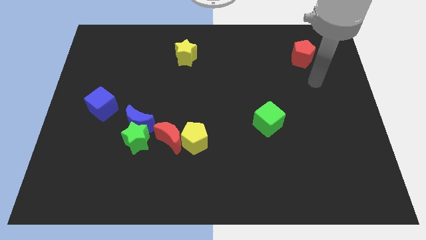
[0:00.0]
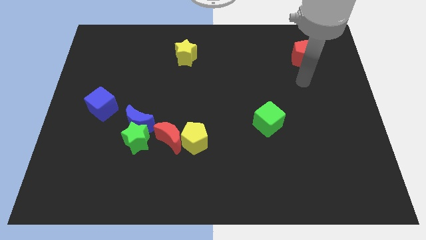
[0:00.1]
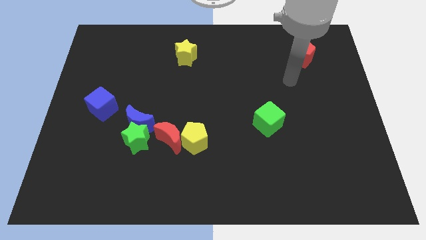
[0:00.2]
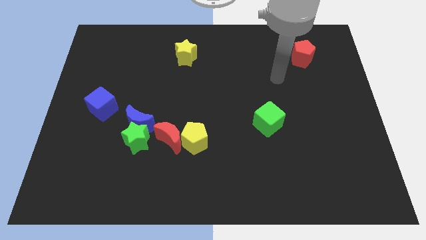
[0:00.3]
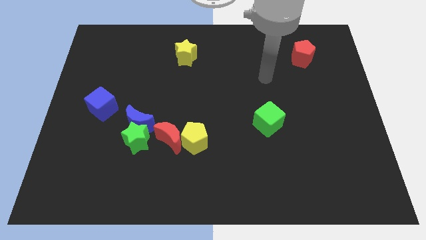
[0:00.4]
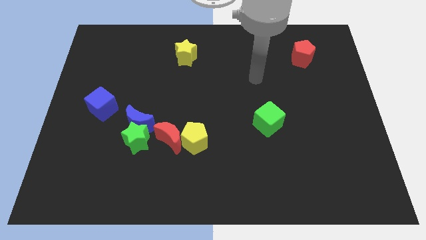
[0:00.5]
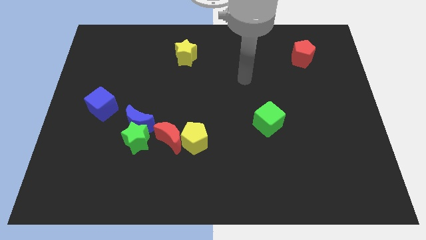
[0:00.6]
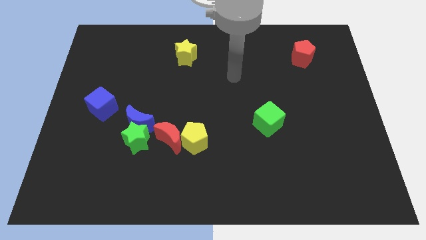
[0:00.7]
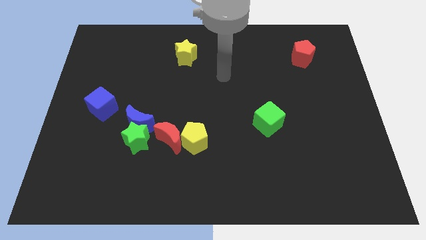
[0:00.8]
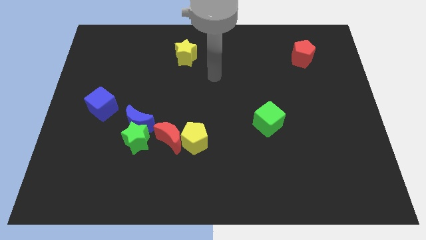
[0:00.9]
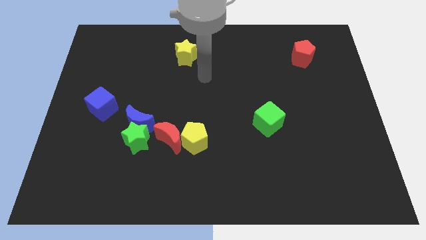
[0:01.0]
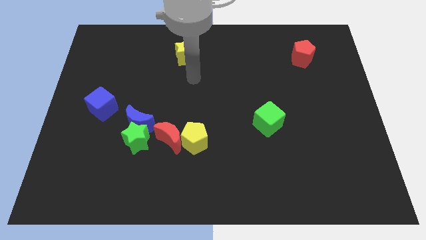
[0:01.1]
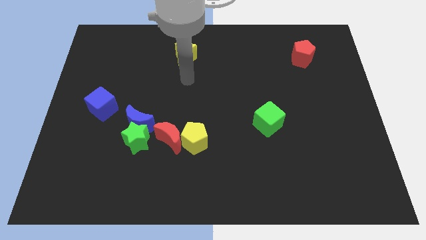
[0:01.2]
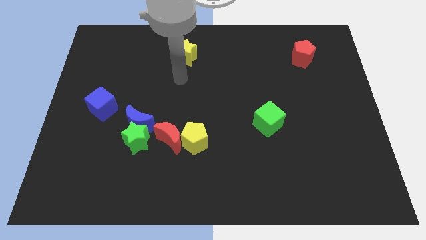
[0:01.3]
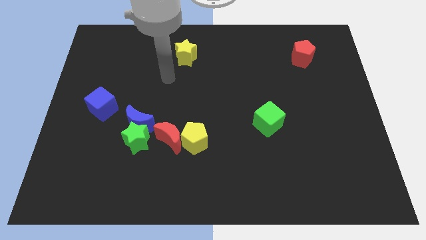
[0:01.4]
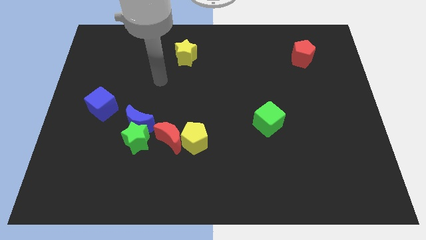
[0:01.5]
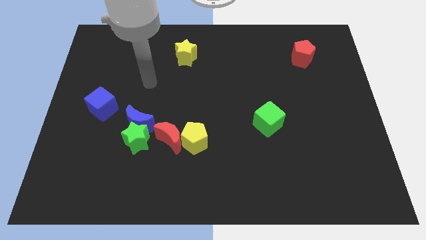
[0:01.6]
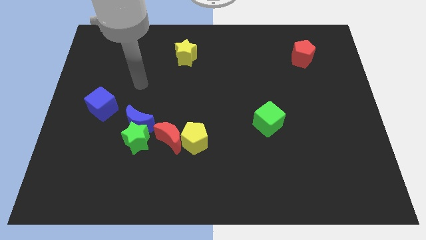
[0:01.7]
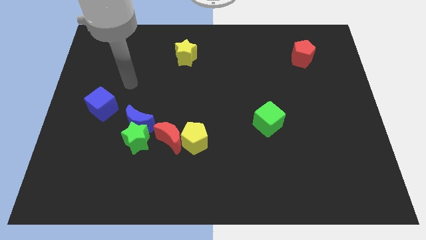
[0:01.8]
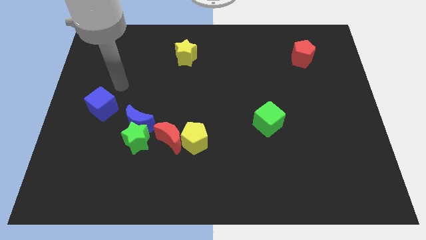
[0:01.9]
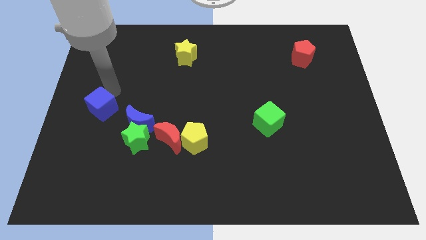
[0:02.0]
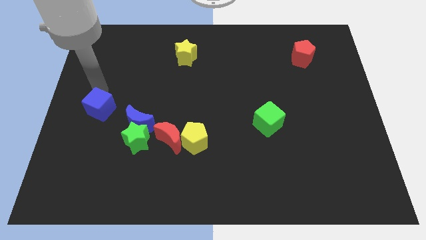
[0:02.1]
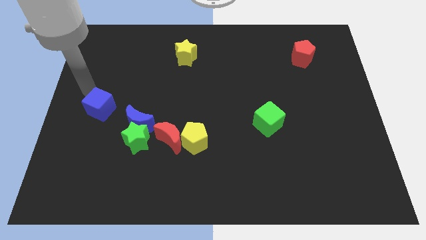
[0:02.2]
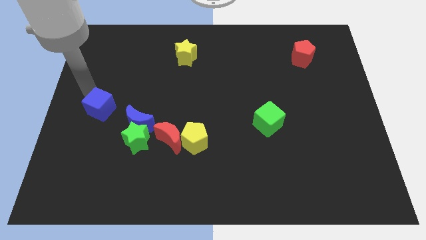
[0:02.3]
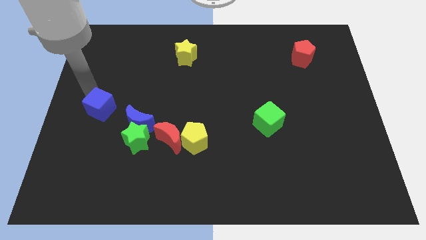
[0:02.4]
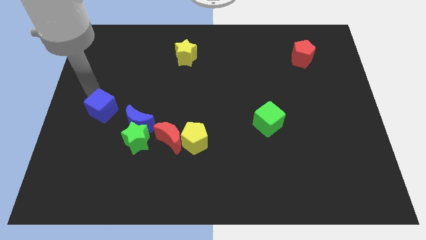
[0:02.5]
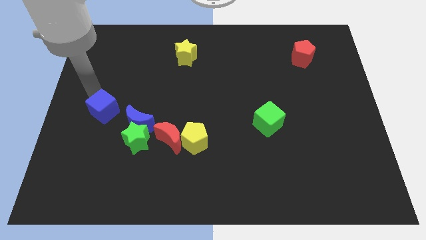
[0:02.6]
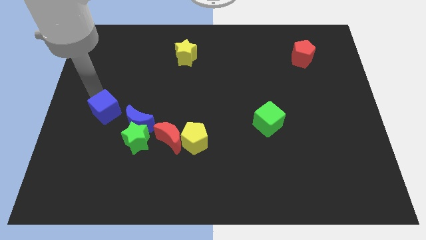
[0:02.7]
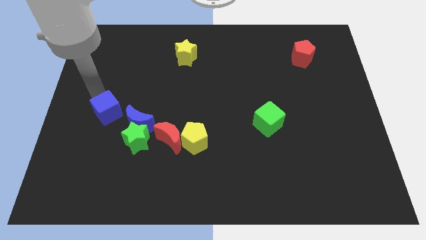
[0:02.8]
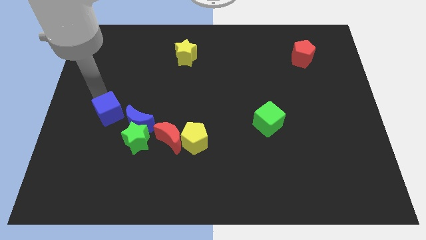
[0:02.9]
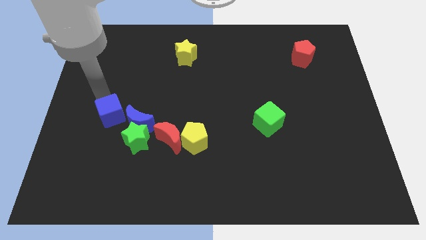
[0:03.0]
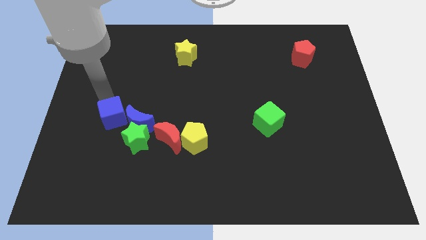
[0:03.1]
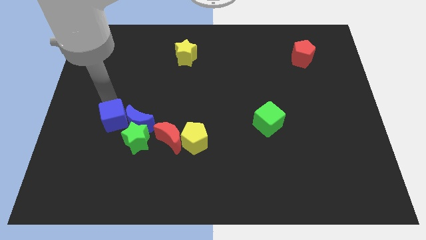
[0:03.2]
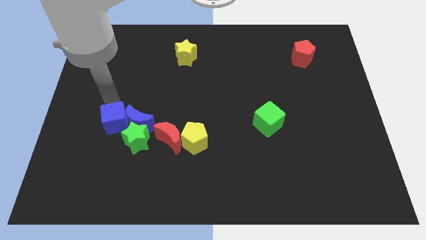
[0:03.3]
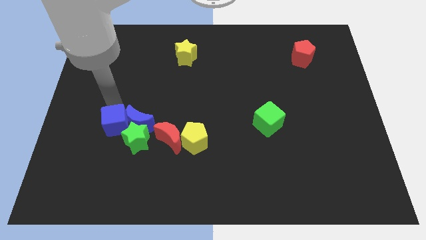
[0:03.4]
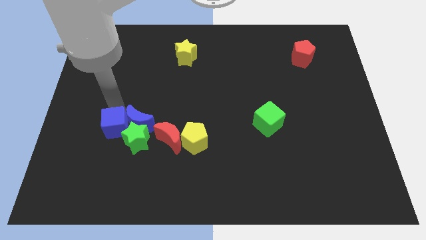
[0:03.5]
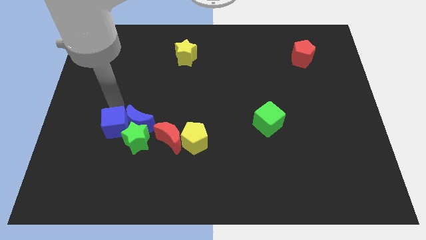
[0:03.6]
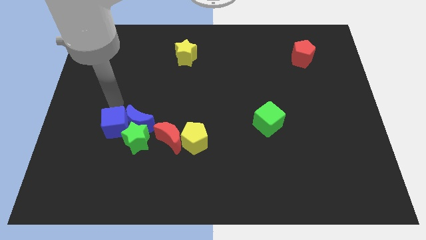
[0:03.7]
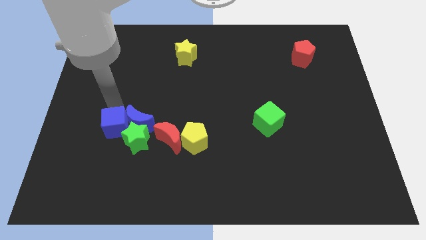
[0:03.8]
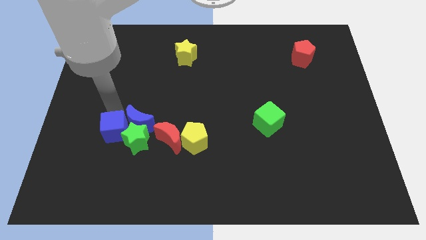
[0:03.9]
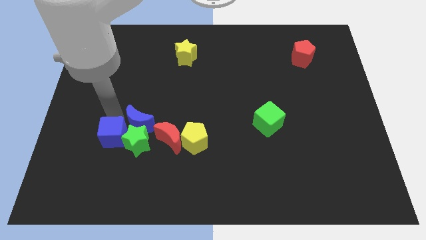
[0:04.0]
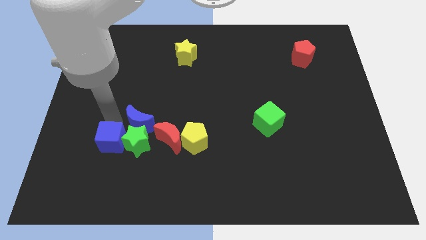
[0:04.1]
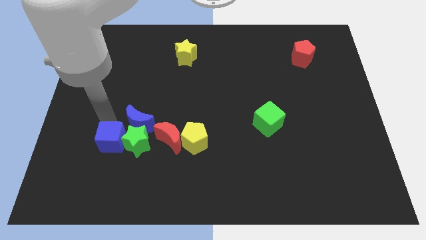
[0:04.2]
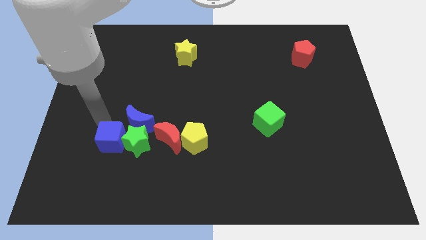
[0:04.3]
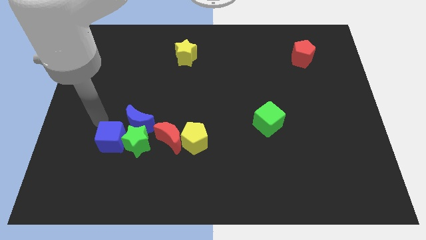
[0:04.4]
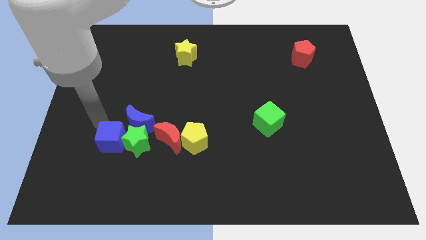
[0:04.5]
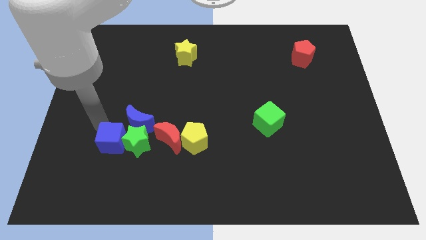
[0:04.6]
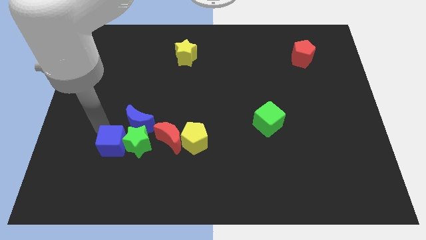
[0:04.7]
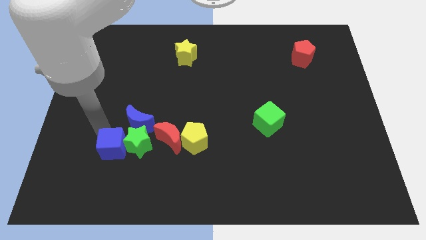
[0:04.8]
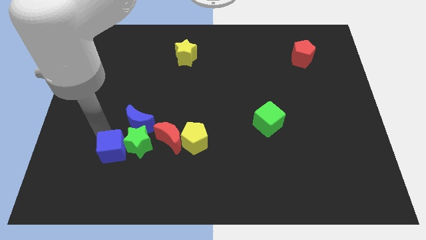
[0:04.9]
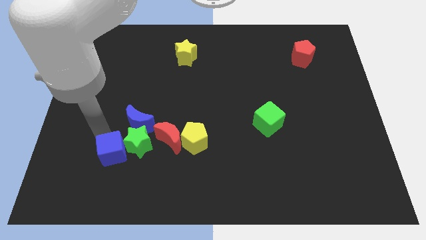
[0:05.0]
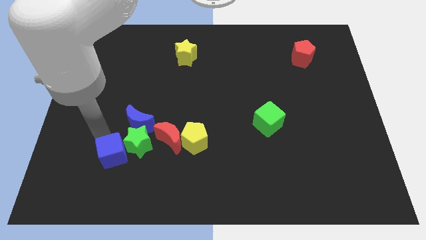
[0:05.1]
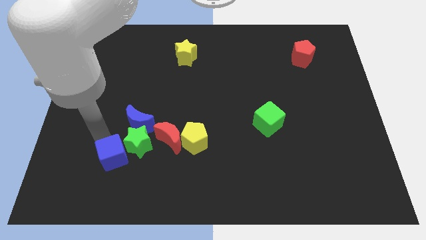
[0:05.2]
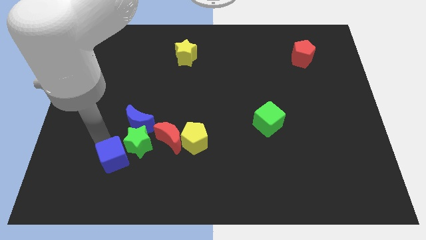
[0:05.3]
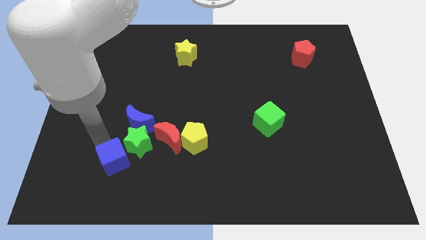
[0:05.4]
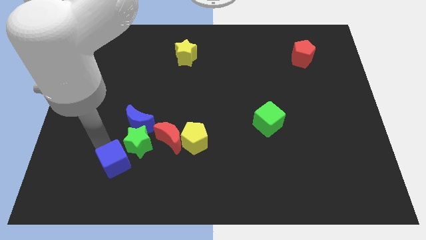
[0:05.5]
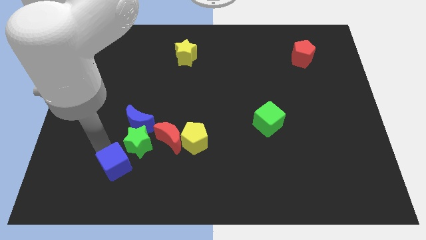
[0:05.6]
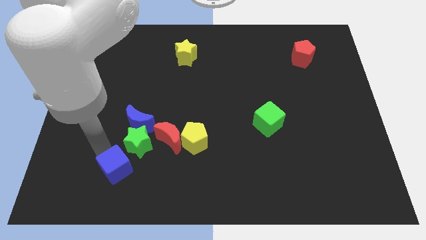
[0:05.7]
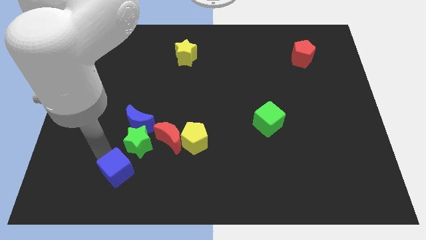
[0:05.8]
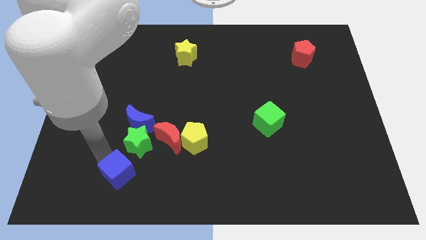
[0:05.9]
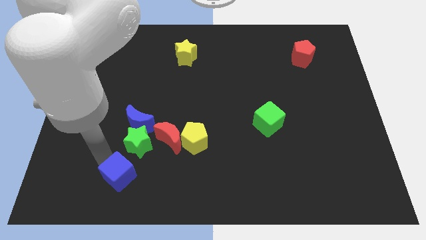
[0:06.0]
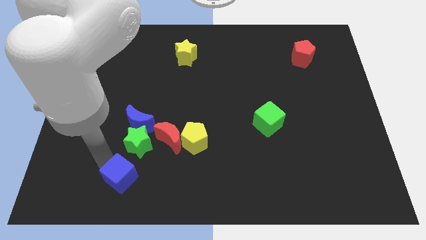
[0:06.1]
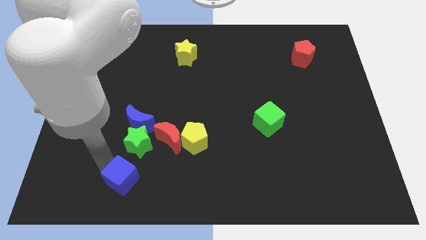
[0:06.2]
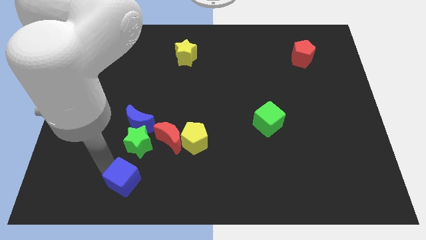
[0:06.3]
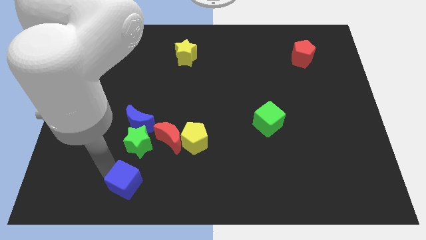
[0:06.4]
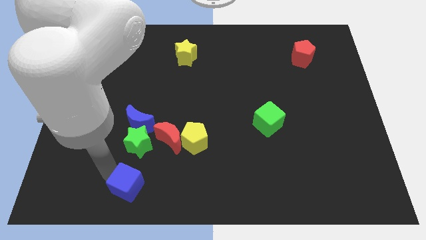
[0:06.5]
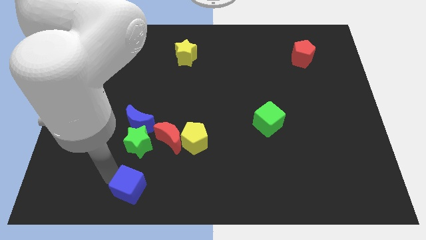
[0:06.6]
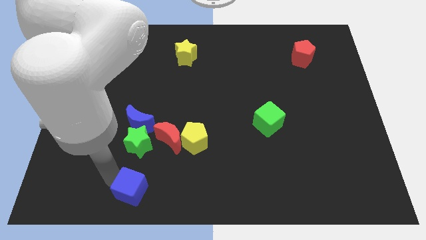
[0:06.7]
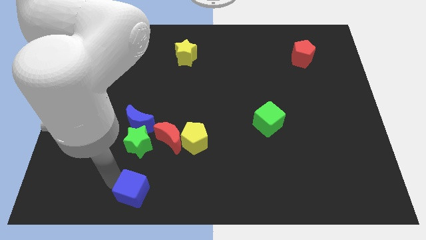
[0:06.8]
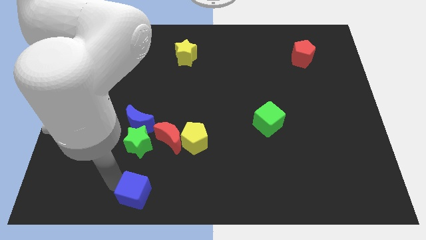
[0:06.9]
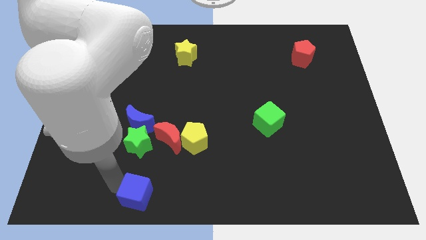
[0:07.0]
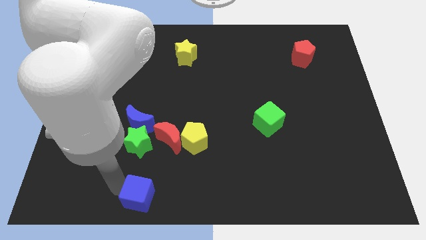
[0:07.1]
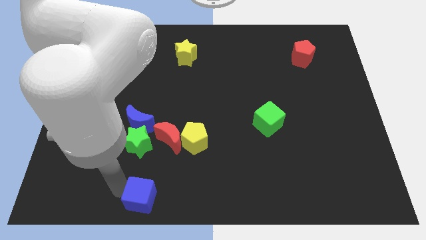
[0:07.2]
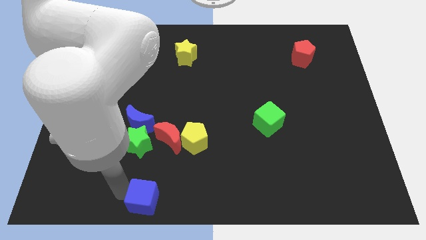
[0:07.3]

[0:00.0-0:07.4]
move the blue cube to the bottom side

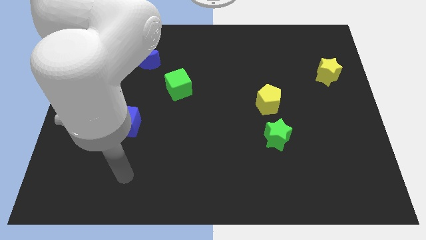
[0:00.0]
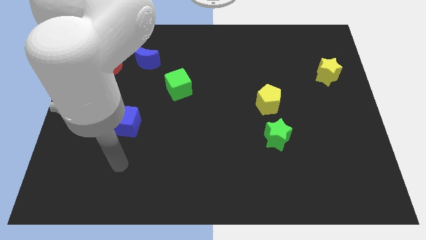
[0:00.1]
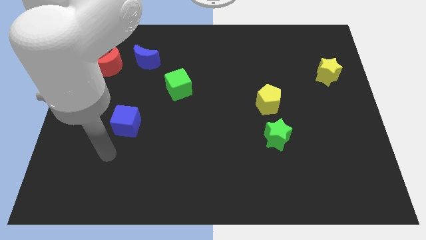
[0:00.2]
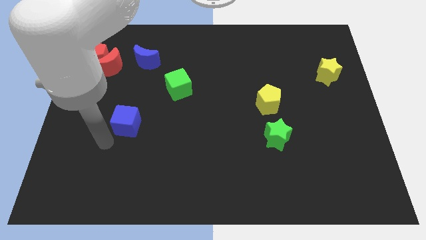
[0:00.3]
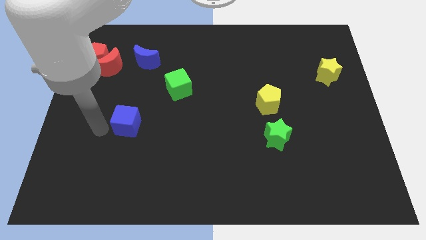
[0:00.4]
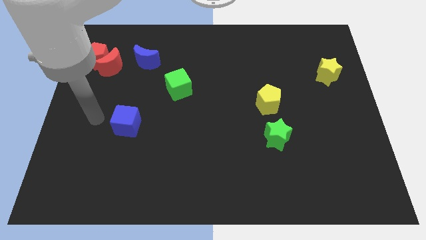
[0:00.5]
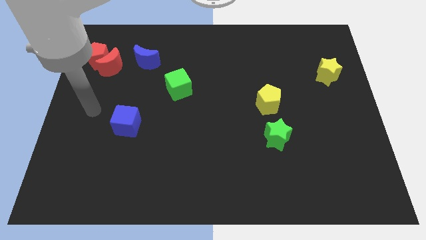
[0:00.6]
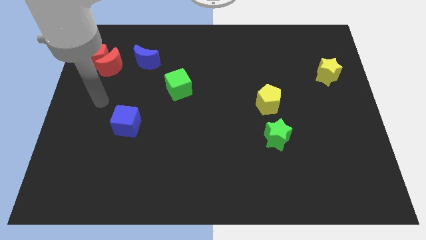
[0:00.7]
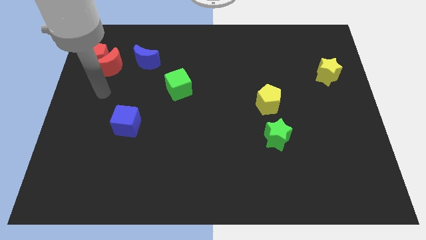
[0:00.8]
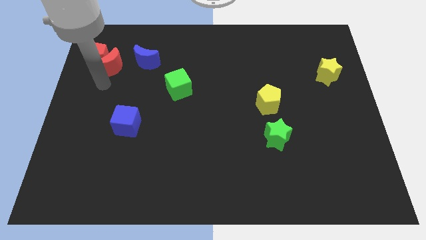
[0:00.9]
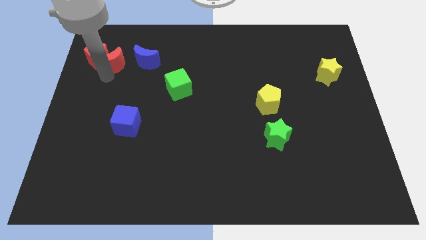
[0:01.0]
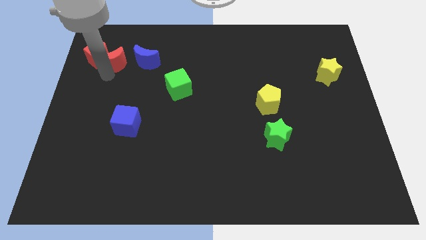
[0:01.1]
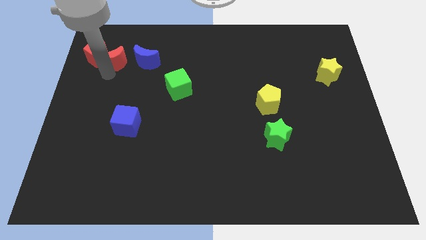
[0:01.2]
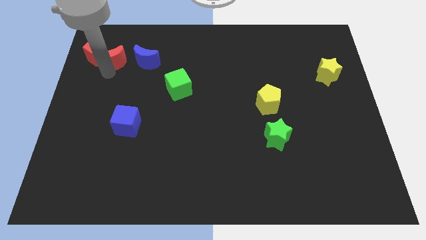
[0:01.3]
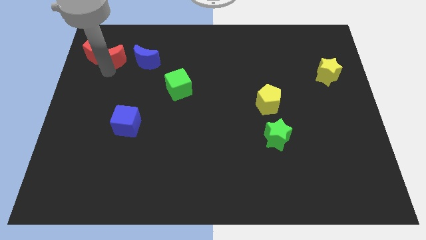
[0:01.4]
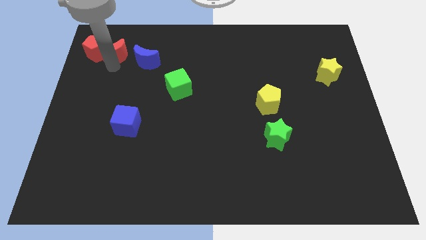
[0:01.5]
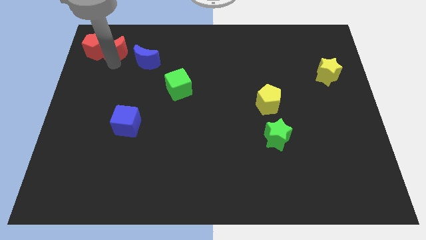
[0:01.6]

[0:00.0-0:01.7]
push the red pentagon to the top left of the board
